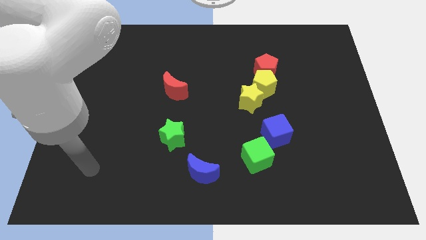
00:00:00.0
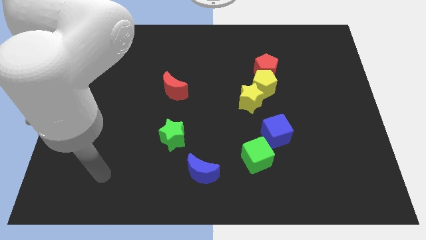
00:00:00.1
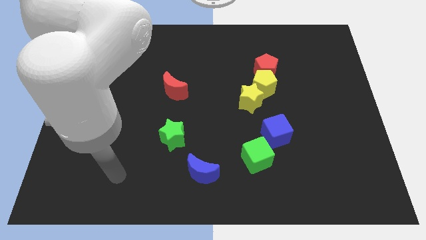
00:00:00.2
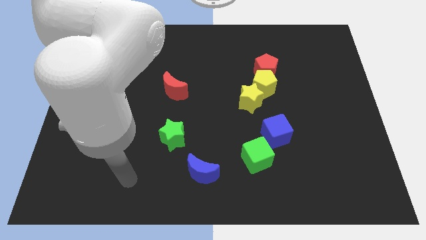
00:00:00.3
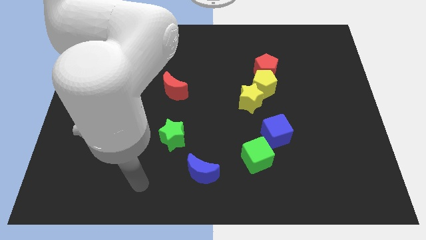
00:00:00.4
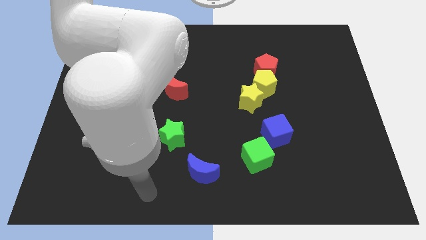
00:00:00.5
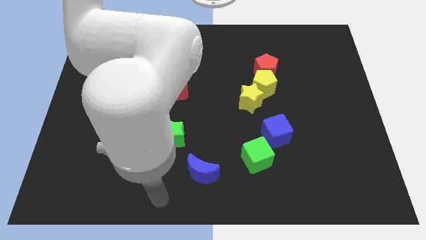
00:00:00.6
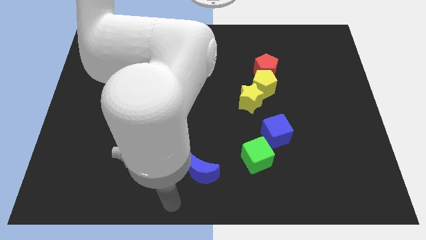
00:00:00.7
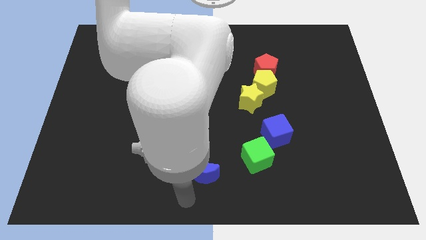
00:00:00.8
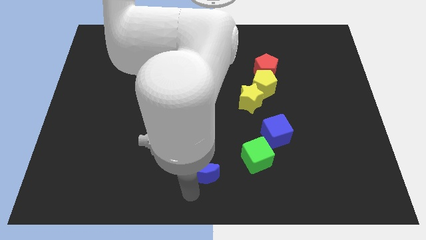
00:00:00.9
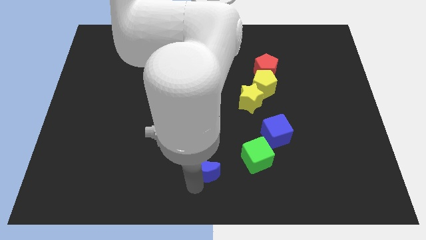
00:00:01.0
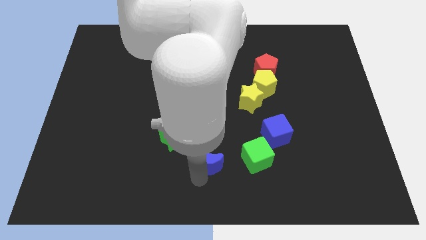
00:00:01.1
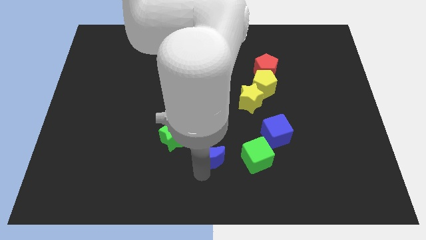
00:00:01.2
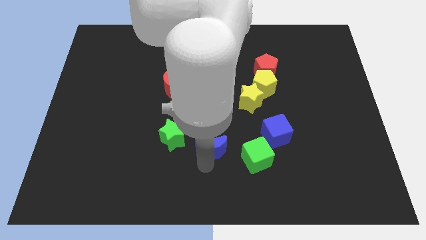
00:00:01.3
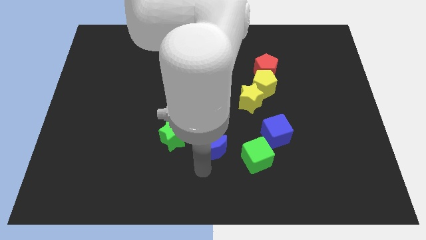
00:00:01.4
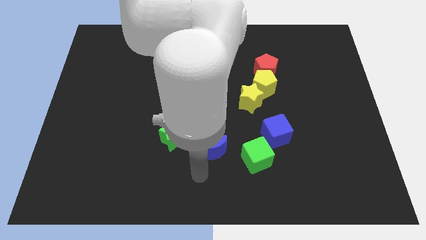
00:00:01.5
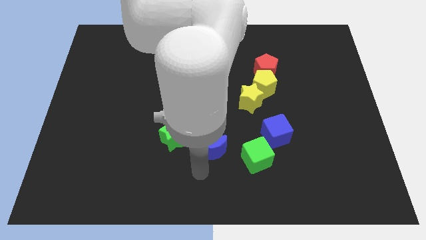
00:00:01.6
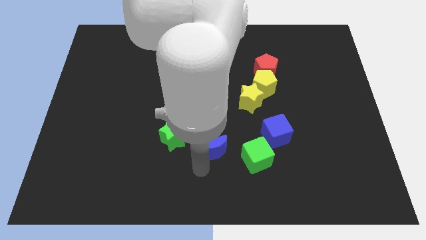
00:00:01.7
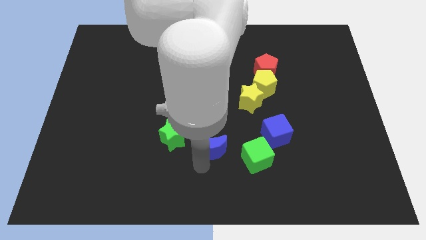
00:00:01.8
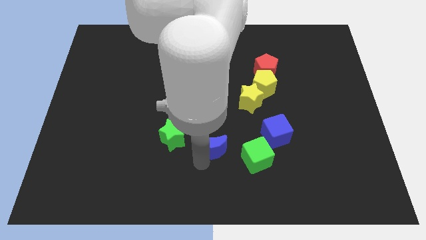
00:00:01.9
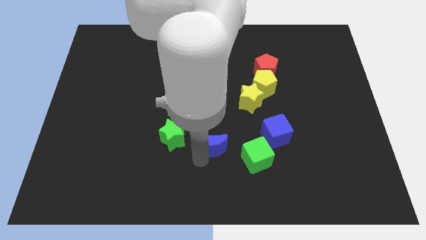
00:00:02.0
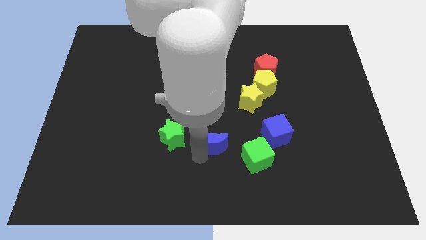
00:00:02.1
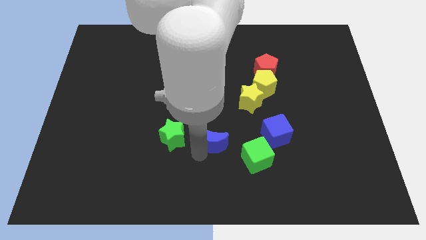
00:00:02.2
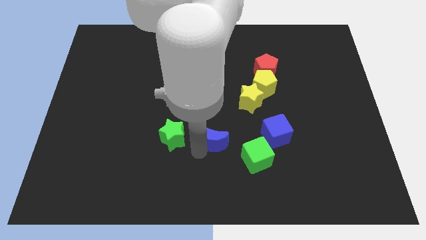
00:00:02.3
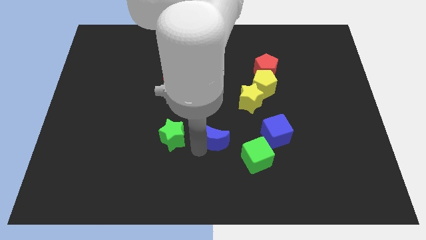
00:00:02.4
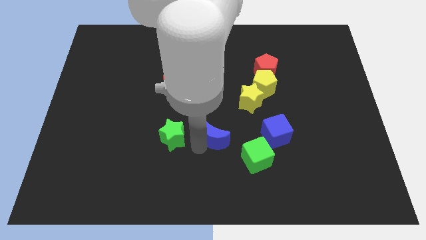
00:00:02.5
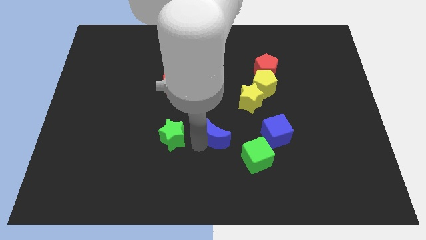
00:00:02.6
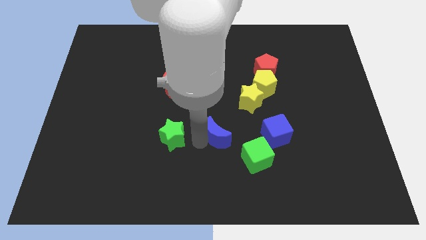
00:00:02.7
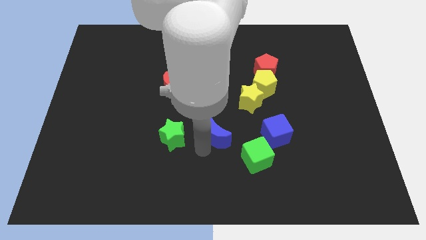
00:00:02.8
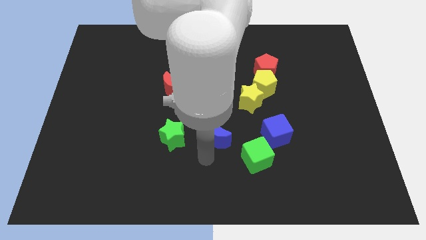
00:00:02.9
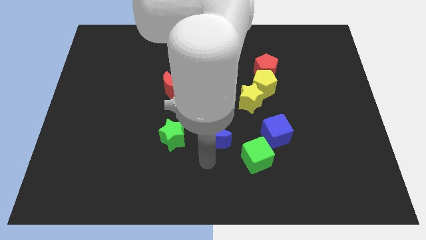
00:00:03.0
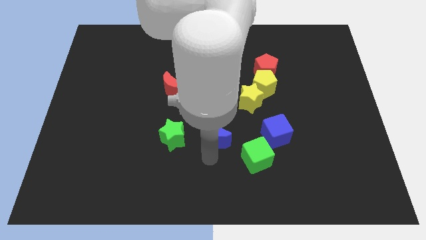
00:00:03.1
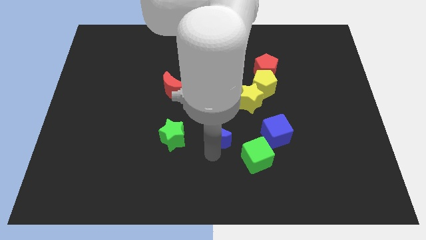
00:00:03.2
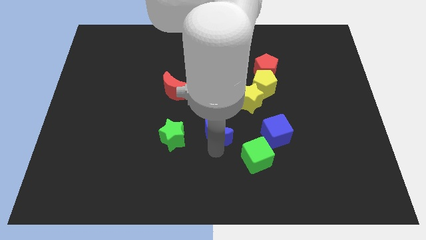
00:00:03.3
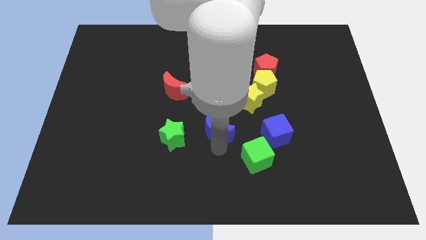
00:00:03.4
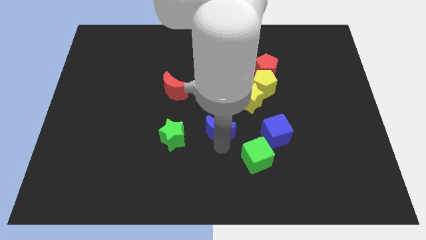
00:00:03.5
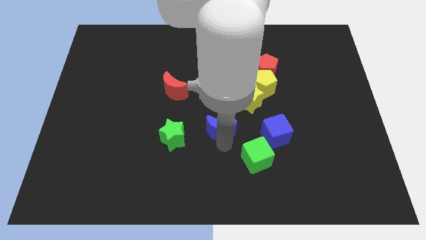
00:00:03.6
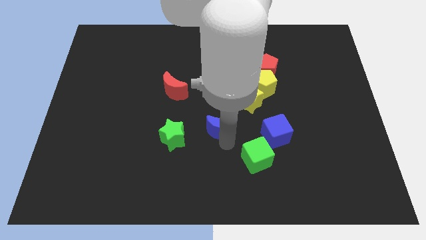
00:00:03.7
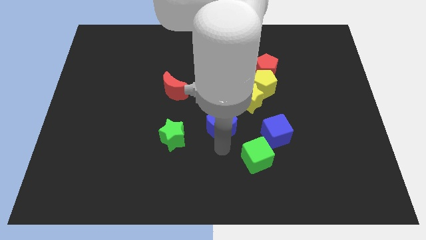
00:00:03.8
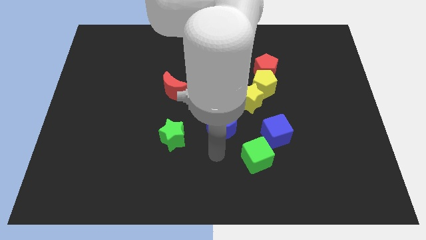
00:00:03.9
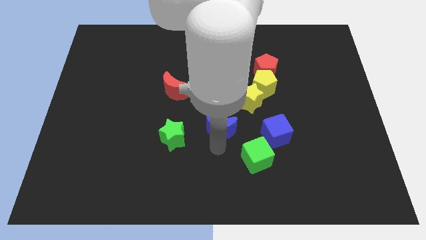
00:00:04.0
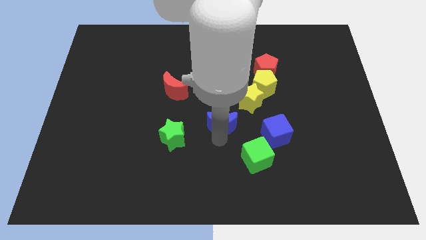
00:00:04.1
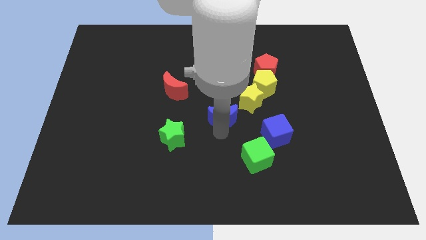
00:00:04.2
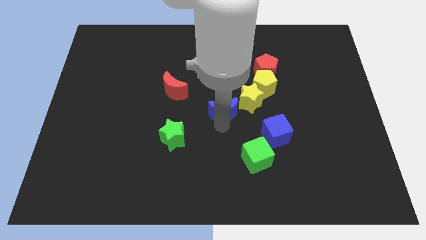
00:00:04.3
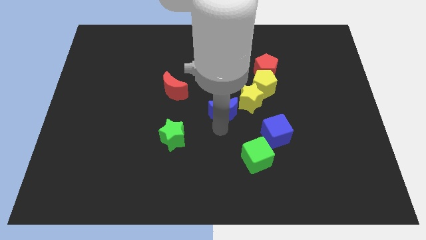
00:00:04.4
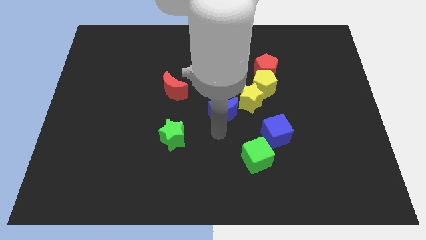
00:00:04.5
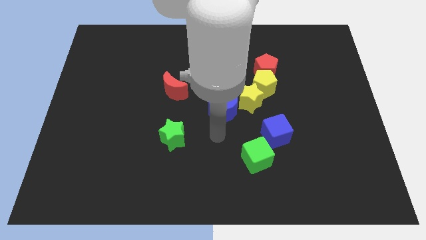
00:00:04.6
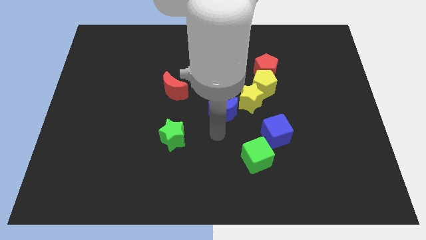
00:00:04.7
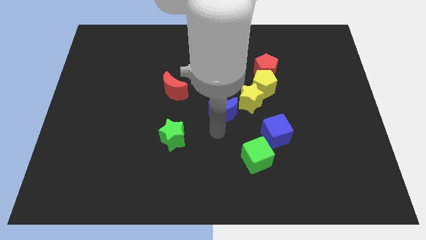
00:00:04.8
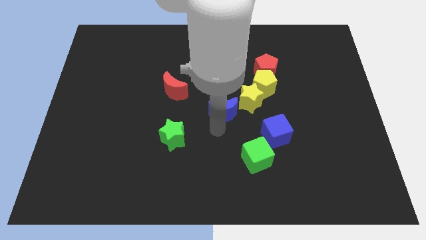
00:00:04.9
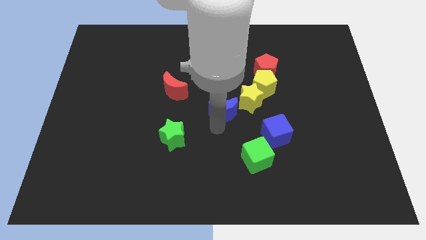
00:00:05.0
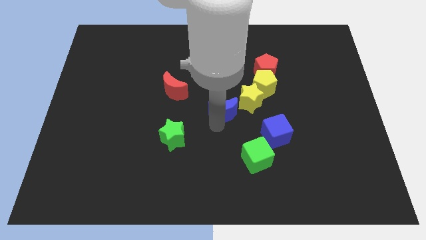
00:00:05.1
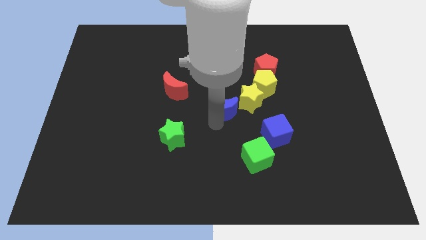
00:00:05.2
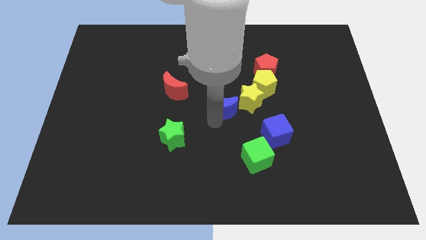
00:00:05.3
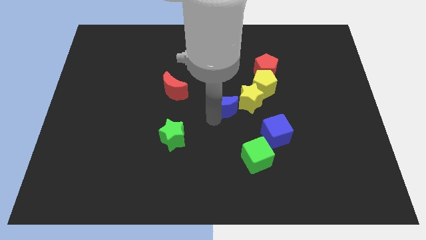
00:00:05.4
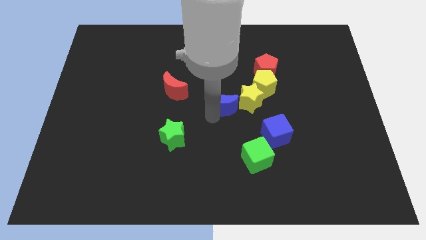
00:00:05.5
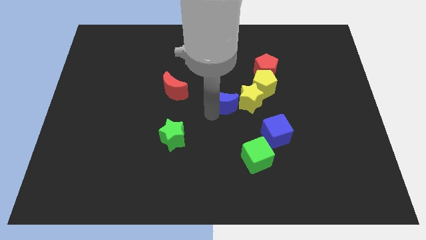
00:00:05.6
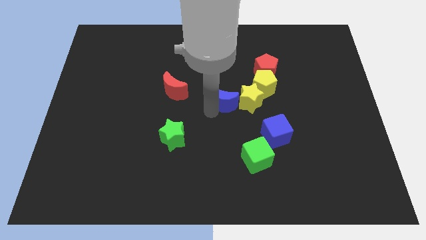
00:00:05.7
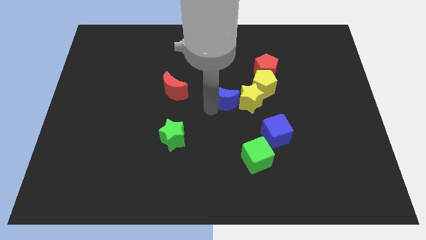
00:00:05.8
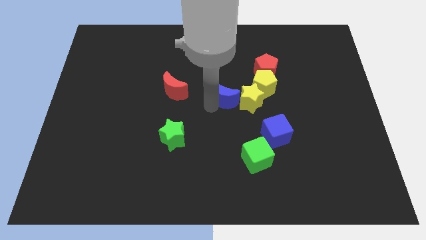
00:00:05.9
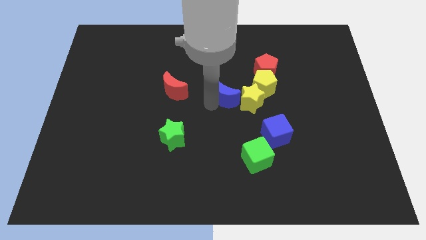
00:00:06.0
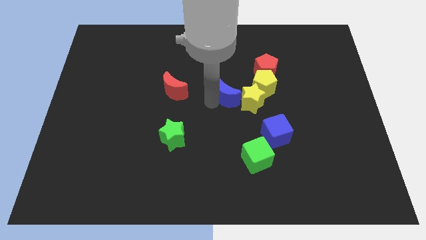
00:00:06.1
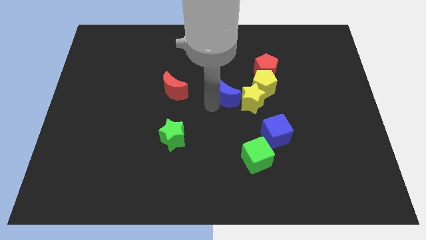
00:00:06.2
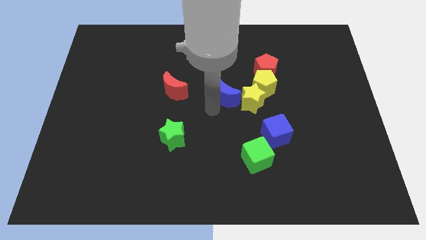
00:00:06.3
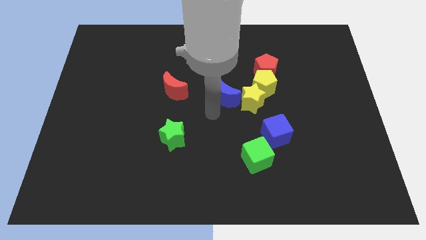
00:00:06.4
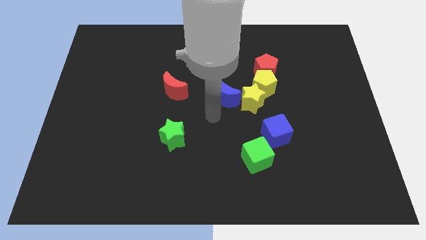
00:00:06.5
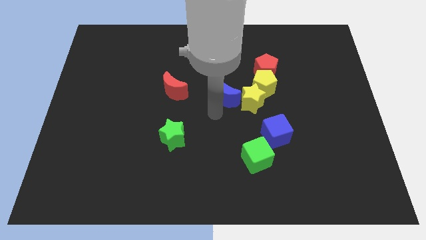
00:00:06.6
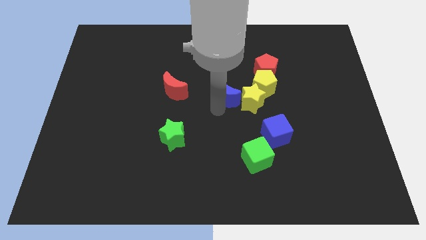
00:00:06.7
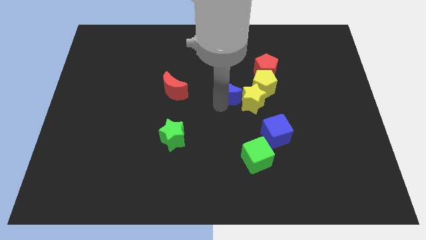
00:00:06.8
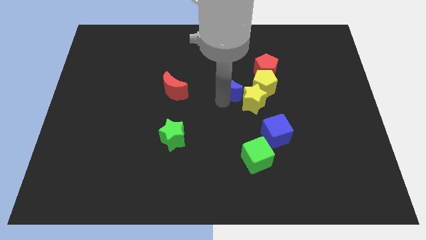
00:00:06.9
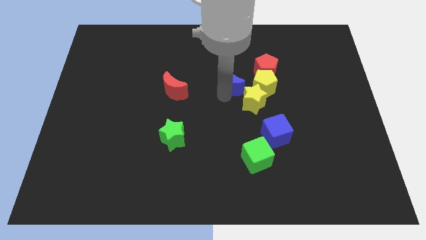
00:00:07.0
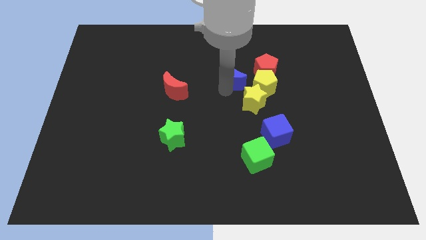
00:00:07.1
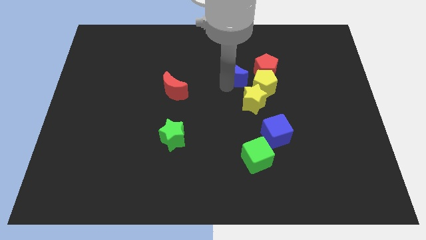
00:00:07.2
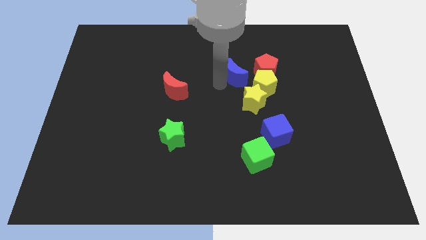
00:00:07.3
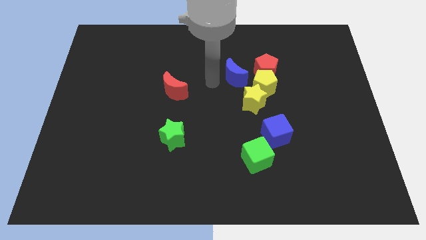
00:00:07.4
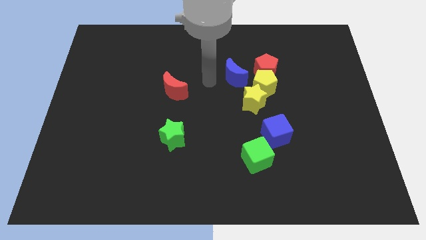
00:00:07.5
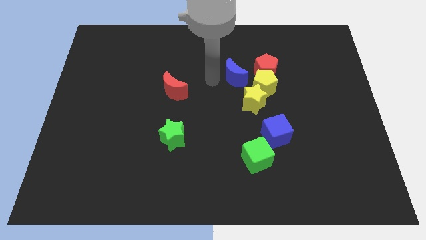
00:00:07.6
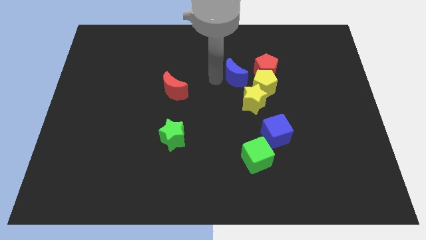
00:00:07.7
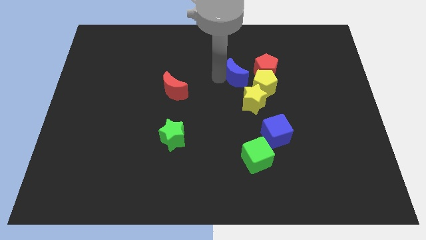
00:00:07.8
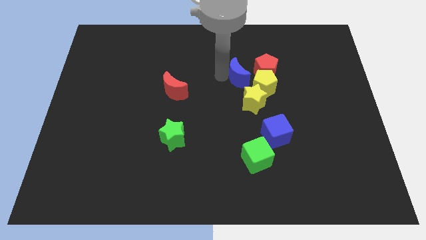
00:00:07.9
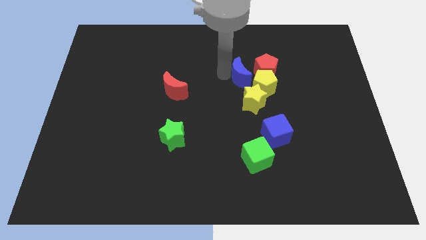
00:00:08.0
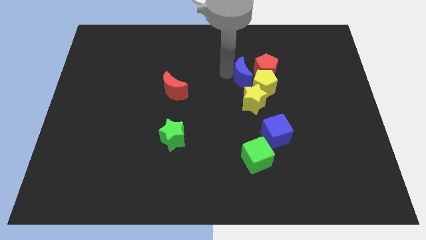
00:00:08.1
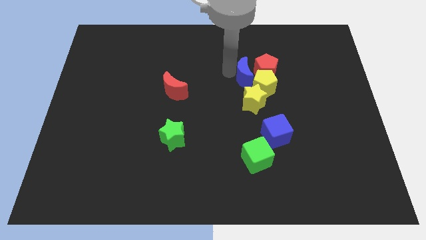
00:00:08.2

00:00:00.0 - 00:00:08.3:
slide the blue moon close to the red pentagon
